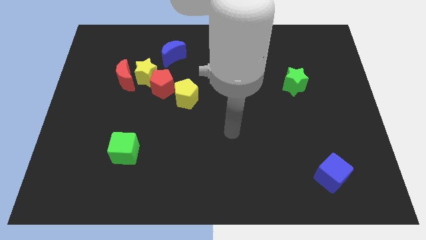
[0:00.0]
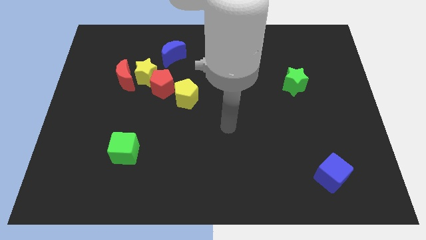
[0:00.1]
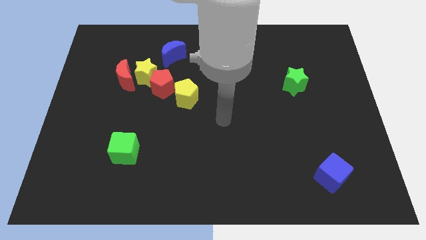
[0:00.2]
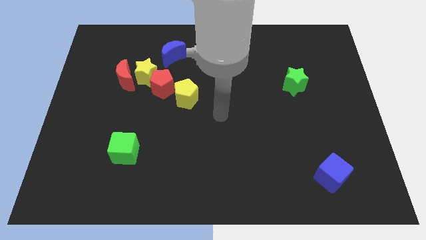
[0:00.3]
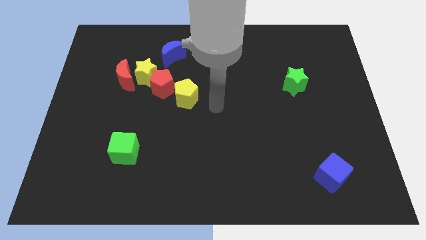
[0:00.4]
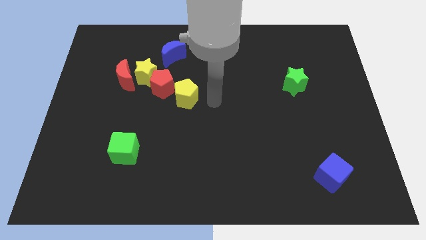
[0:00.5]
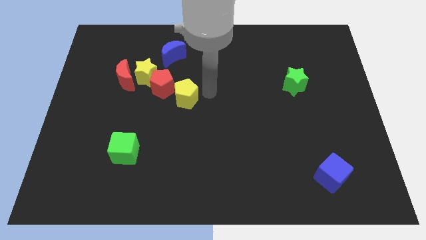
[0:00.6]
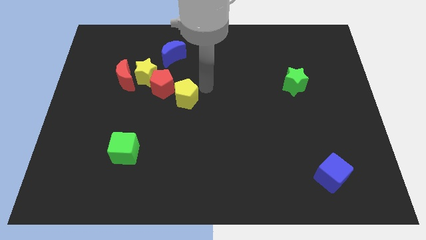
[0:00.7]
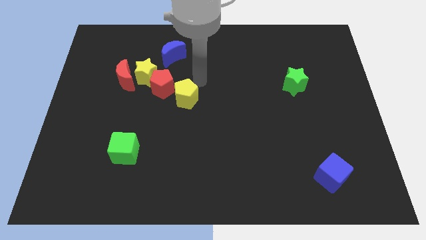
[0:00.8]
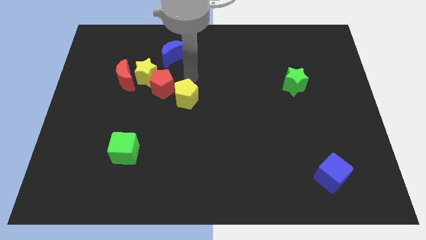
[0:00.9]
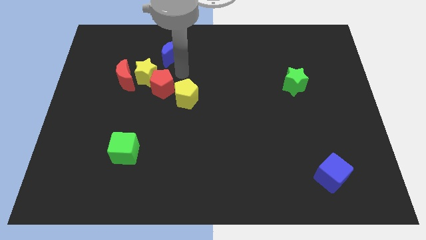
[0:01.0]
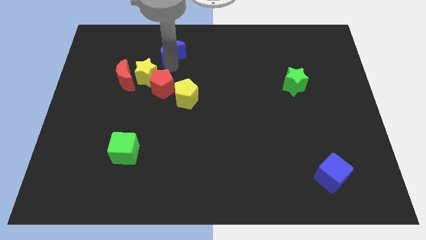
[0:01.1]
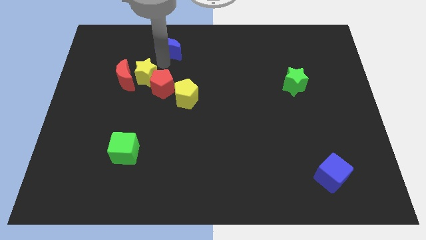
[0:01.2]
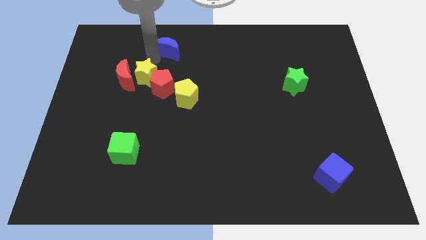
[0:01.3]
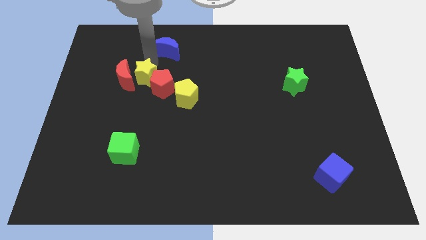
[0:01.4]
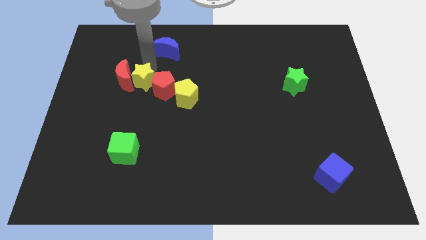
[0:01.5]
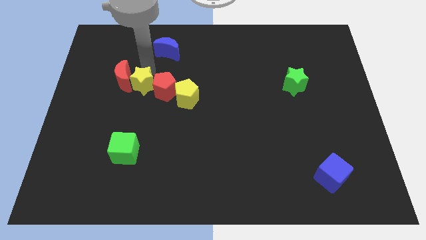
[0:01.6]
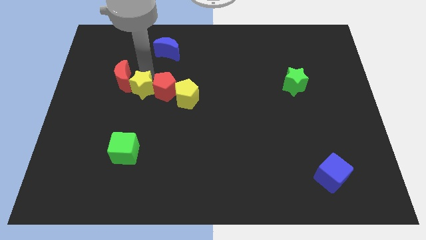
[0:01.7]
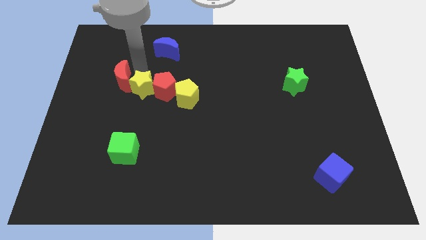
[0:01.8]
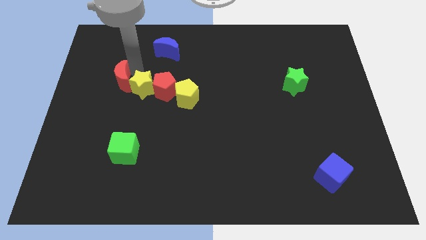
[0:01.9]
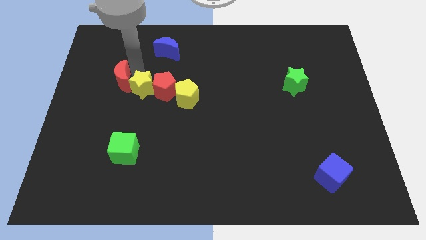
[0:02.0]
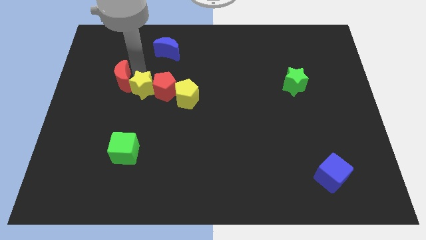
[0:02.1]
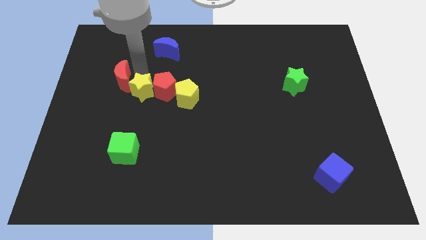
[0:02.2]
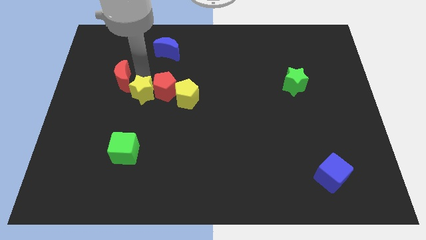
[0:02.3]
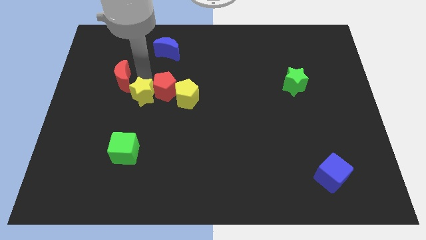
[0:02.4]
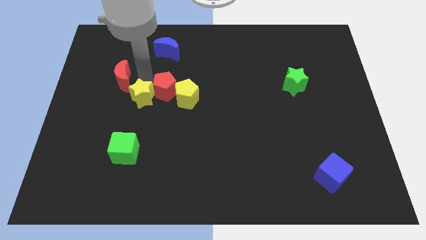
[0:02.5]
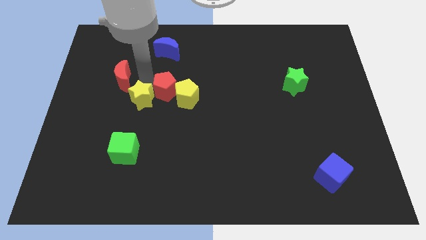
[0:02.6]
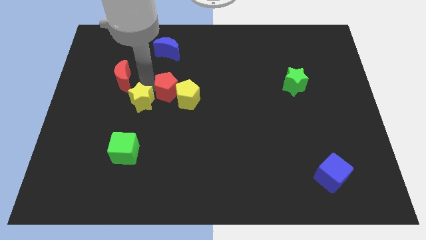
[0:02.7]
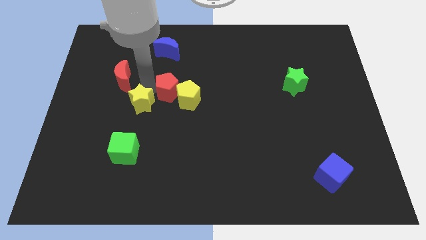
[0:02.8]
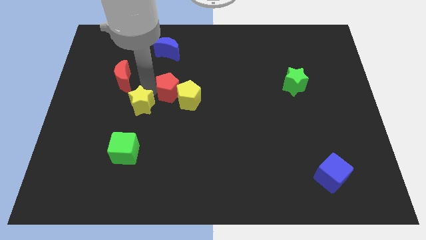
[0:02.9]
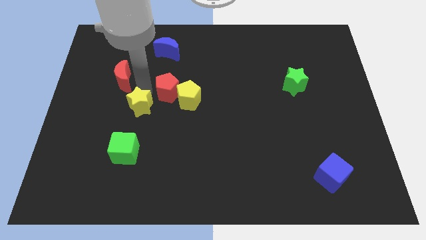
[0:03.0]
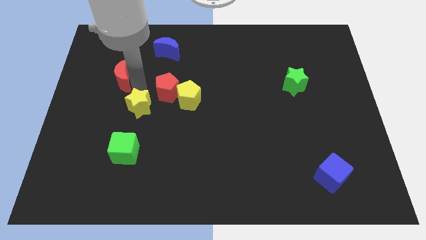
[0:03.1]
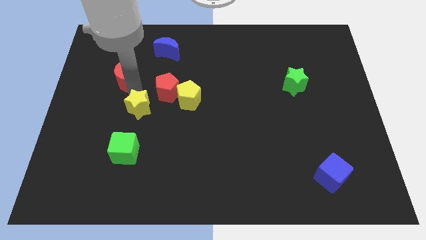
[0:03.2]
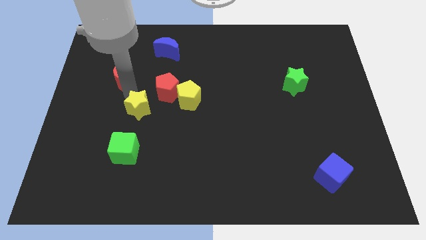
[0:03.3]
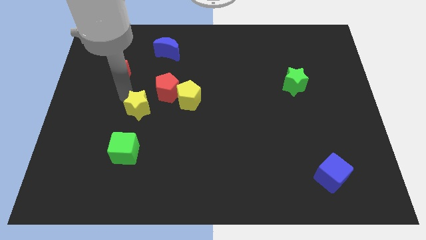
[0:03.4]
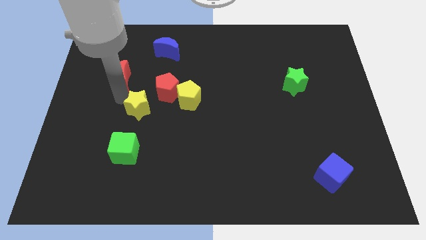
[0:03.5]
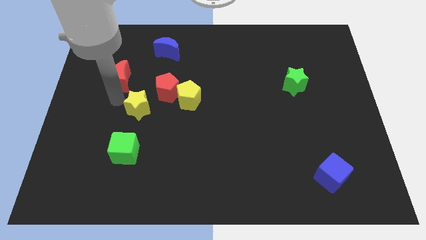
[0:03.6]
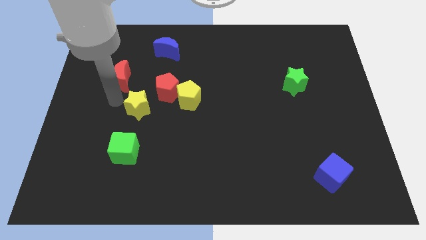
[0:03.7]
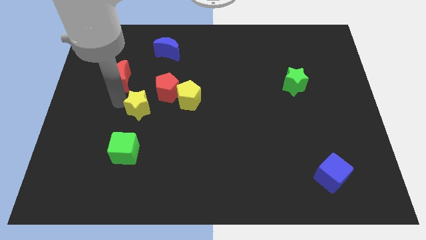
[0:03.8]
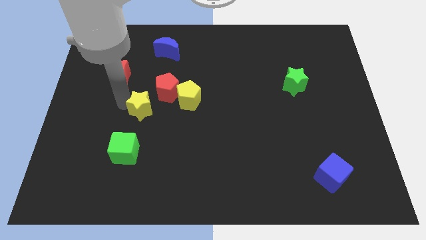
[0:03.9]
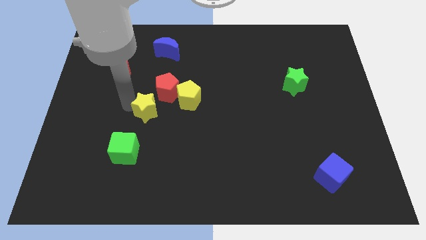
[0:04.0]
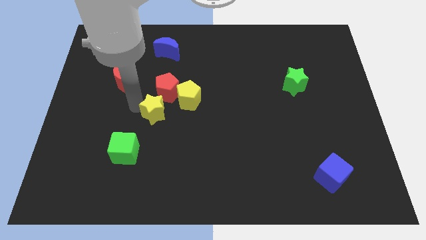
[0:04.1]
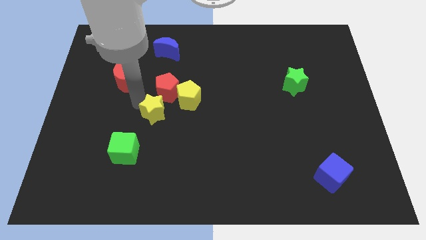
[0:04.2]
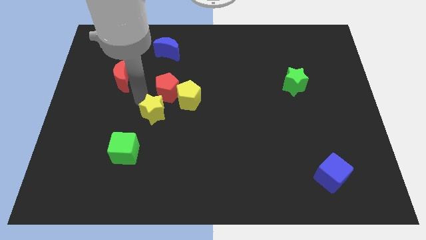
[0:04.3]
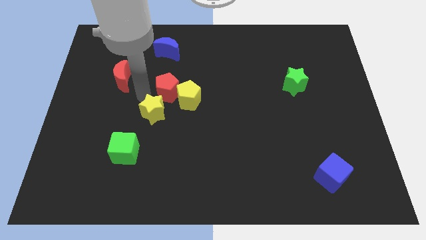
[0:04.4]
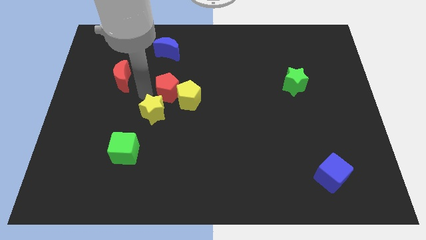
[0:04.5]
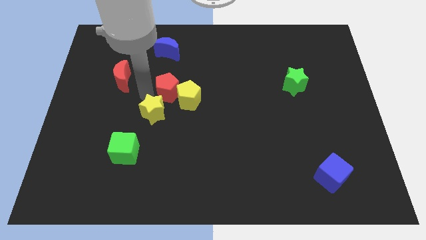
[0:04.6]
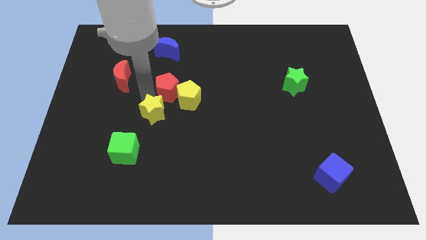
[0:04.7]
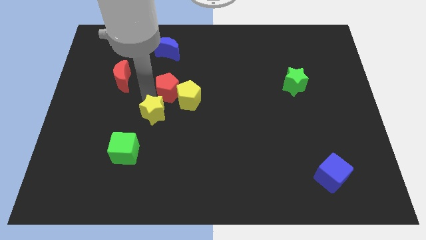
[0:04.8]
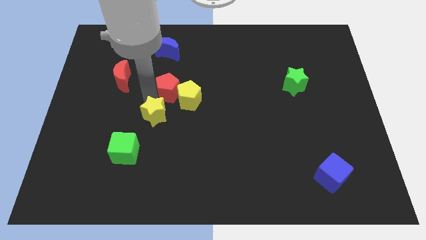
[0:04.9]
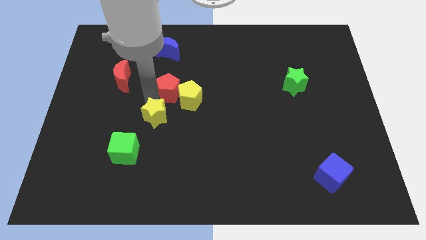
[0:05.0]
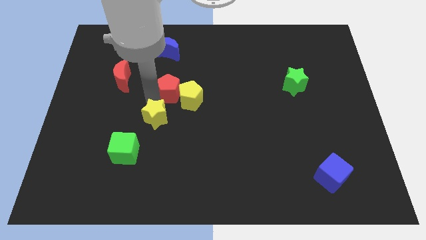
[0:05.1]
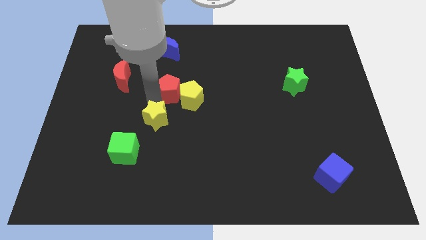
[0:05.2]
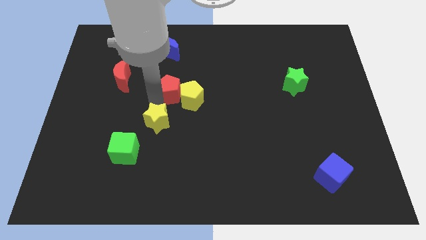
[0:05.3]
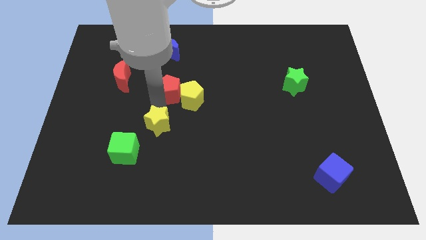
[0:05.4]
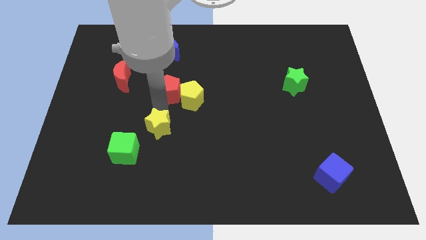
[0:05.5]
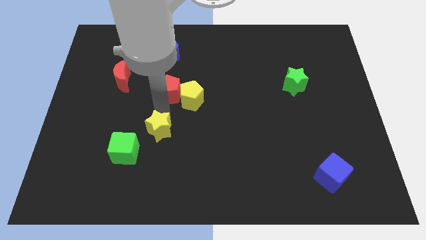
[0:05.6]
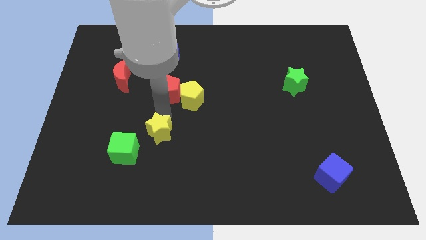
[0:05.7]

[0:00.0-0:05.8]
put the yellow star right of the green cube

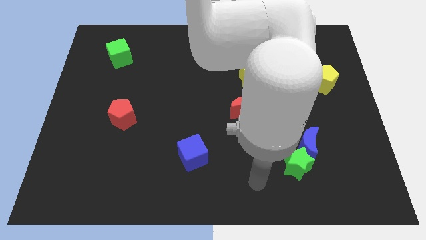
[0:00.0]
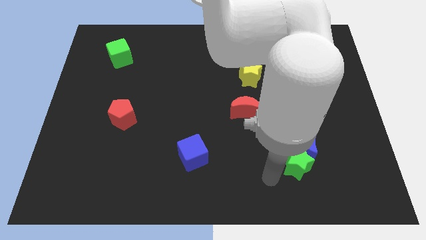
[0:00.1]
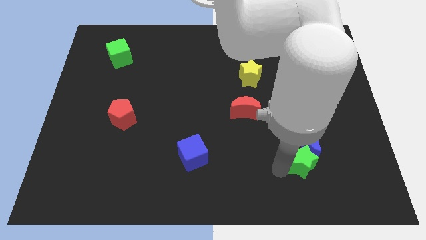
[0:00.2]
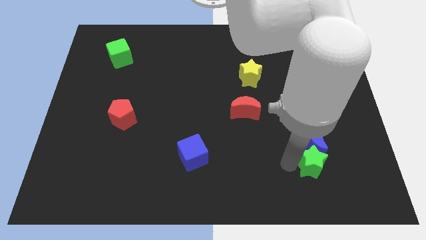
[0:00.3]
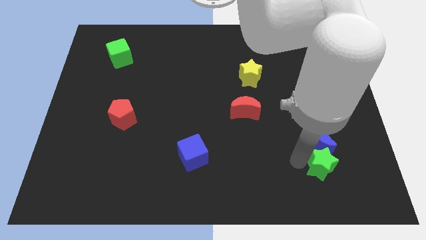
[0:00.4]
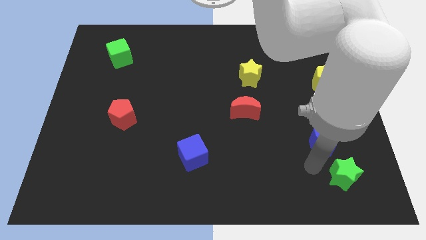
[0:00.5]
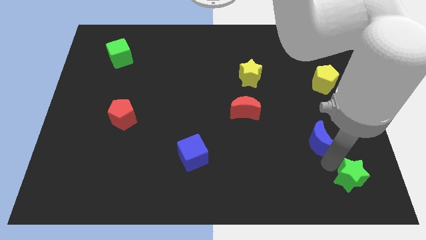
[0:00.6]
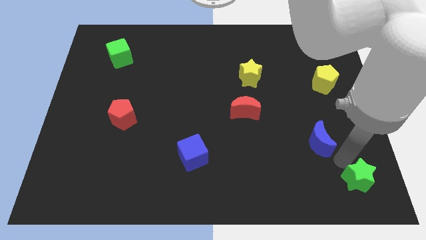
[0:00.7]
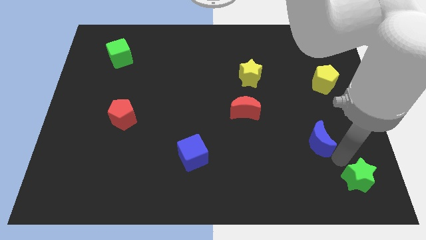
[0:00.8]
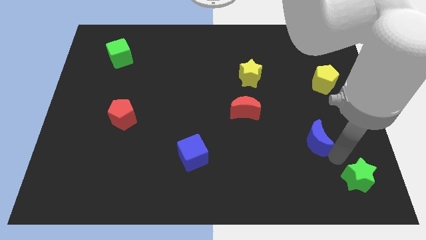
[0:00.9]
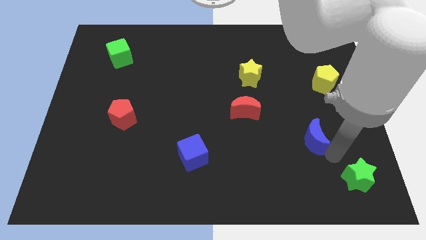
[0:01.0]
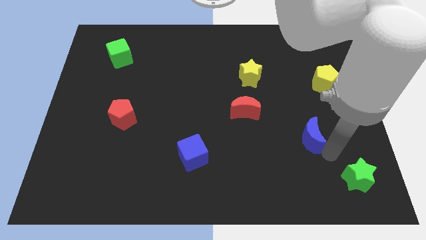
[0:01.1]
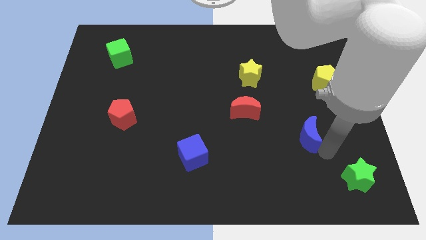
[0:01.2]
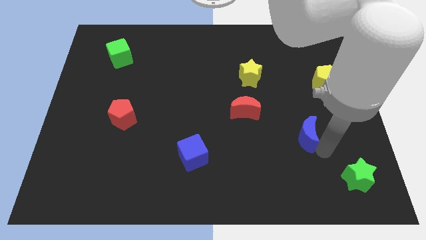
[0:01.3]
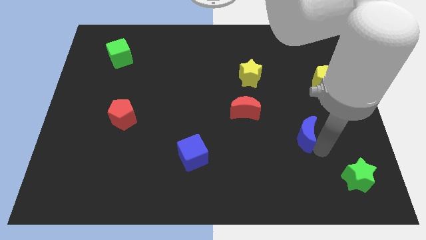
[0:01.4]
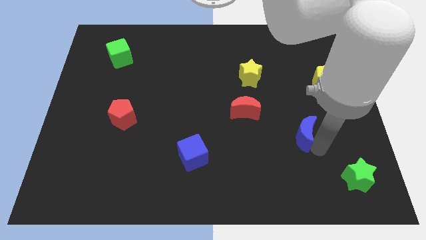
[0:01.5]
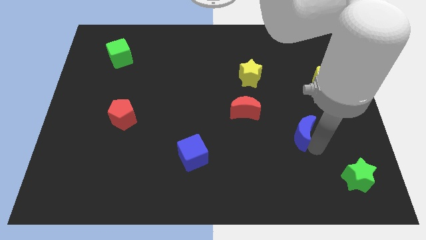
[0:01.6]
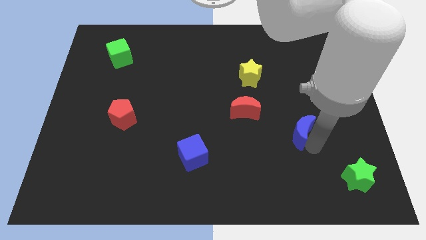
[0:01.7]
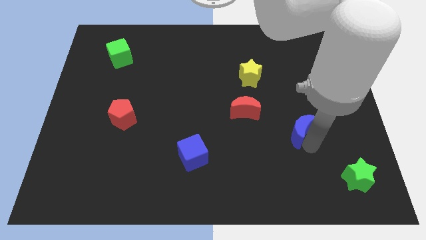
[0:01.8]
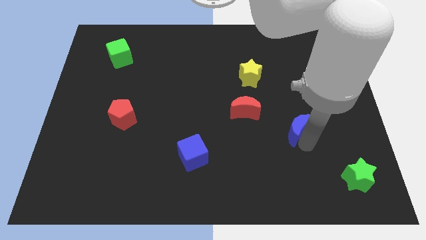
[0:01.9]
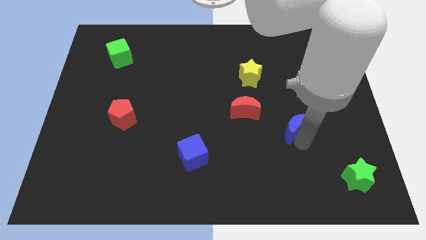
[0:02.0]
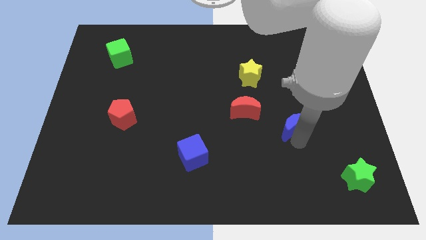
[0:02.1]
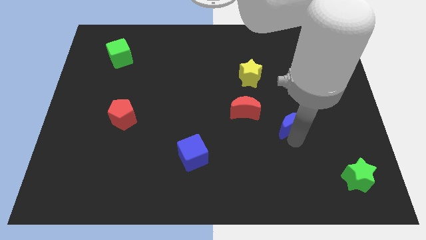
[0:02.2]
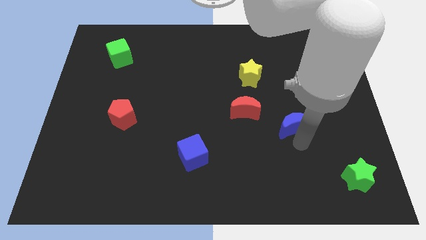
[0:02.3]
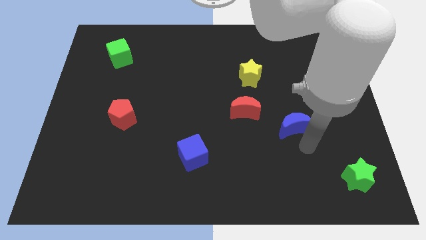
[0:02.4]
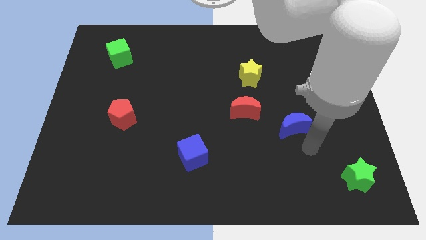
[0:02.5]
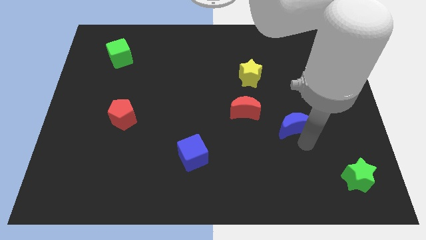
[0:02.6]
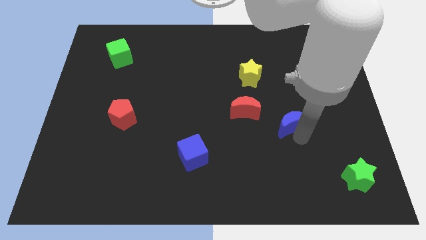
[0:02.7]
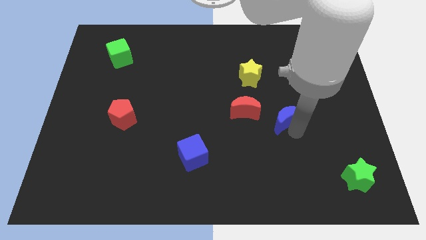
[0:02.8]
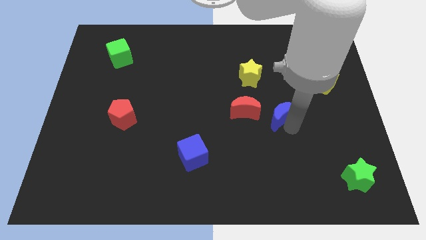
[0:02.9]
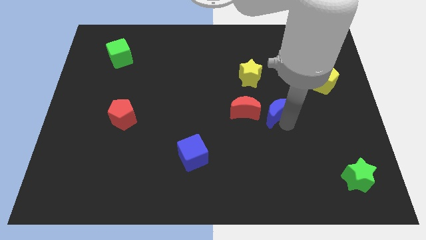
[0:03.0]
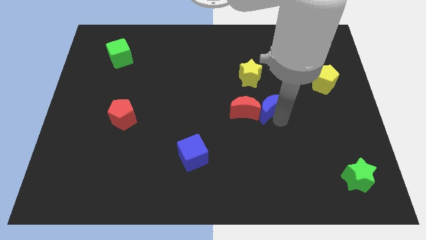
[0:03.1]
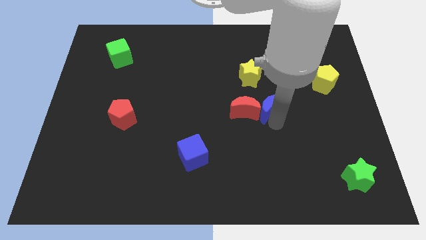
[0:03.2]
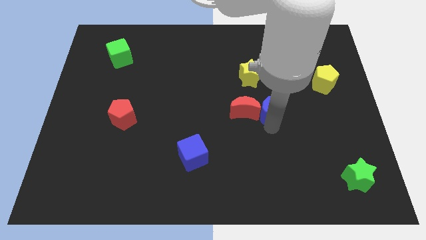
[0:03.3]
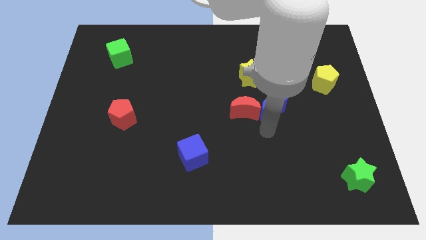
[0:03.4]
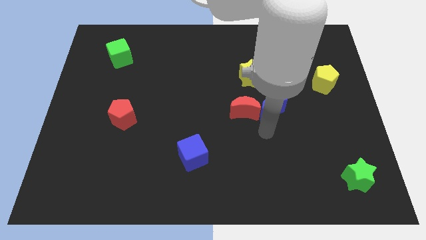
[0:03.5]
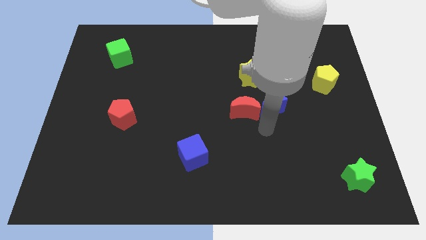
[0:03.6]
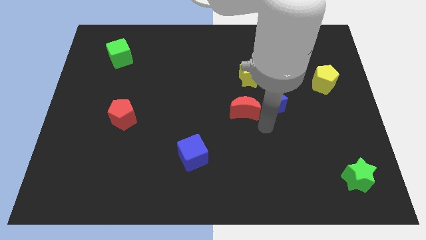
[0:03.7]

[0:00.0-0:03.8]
slide the blue moon diagonally down and to the right of the yellow star
